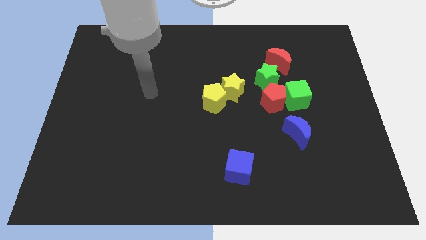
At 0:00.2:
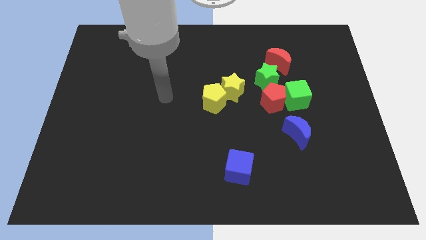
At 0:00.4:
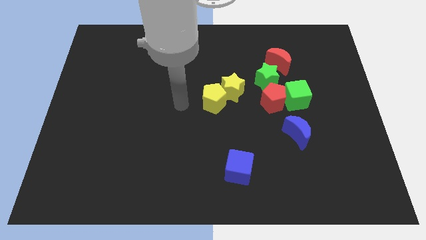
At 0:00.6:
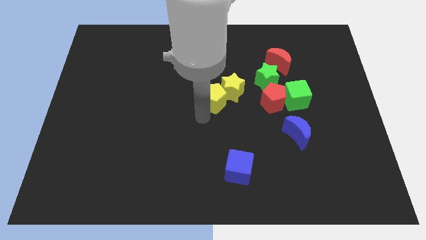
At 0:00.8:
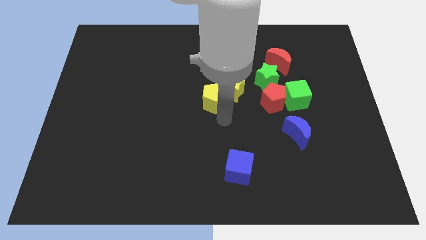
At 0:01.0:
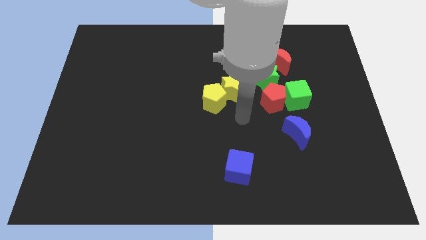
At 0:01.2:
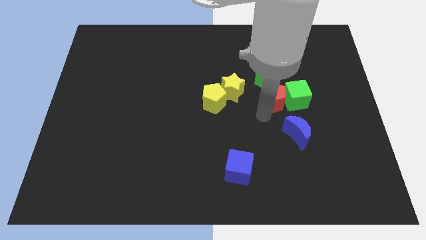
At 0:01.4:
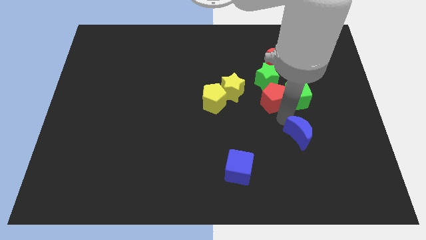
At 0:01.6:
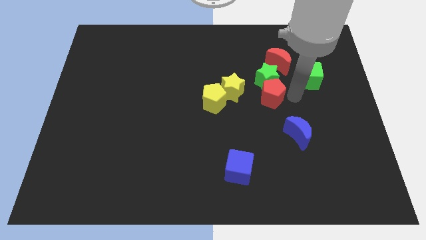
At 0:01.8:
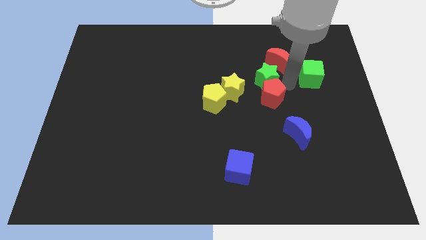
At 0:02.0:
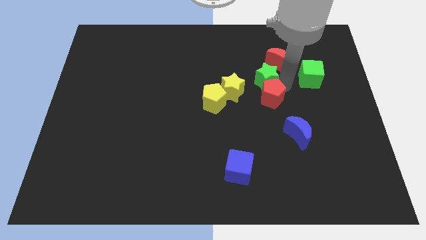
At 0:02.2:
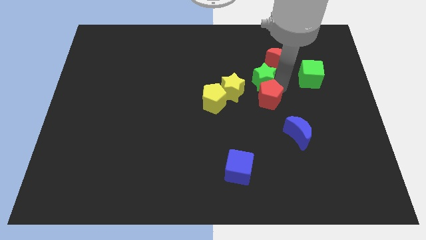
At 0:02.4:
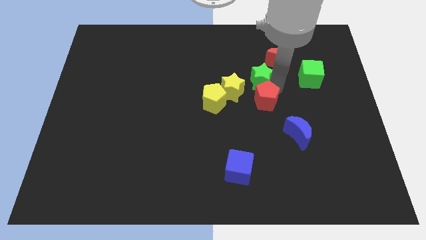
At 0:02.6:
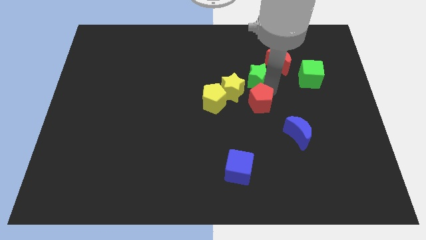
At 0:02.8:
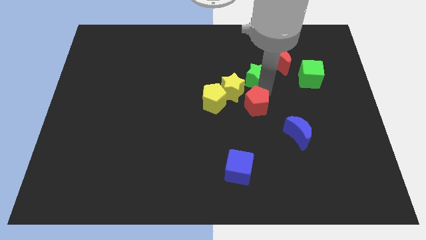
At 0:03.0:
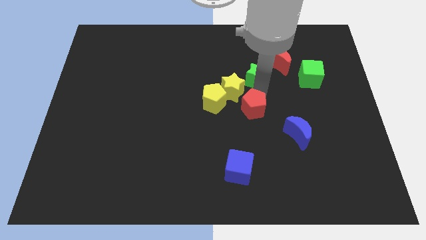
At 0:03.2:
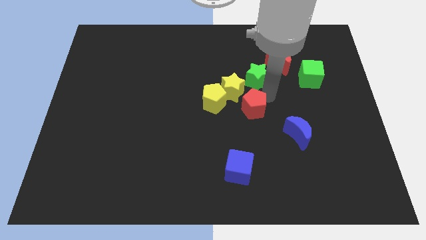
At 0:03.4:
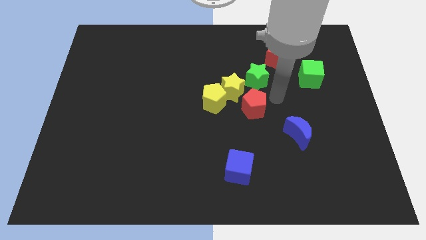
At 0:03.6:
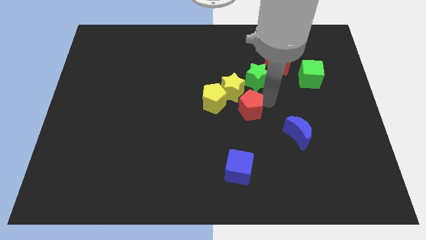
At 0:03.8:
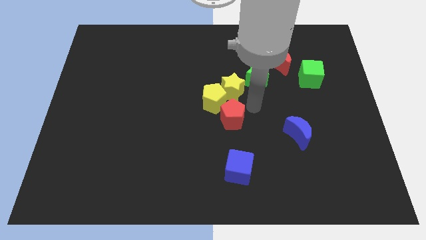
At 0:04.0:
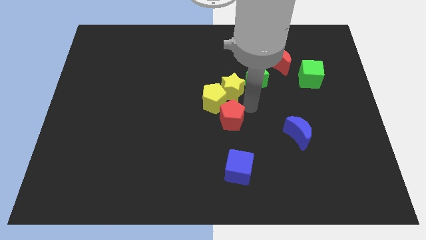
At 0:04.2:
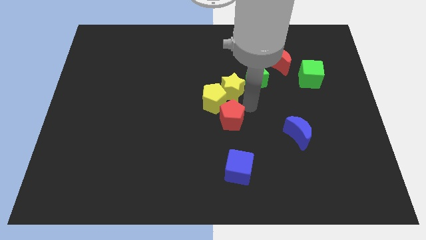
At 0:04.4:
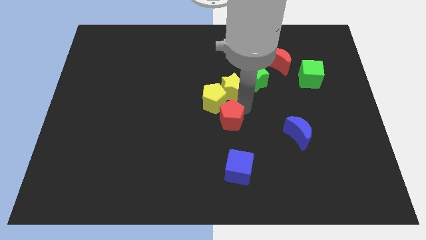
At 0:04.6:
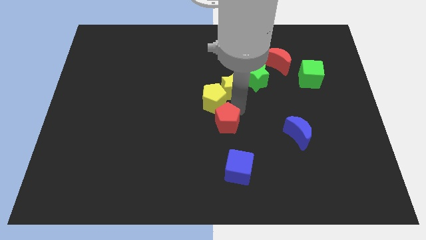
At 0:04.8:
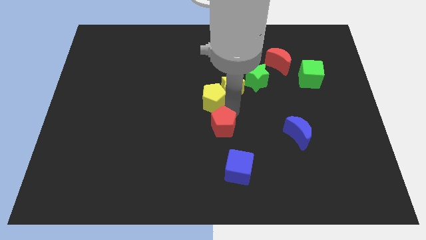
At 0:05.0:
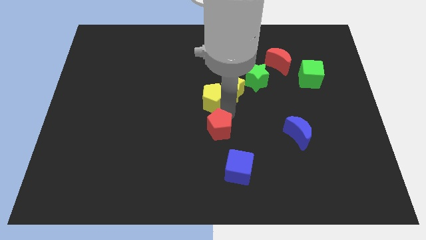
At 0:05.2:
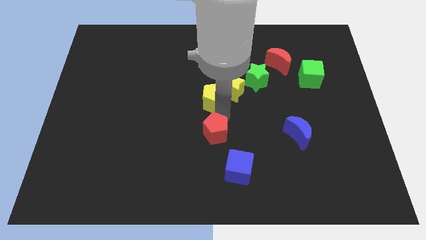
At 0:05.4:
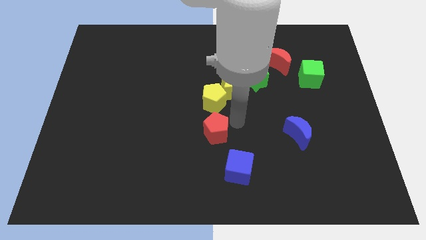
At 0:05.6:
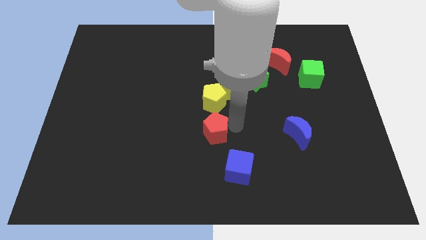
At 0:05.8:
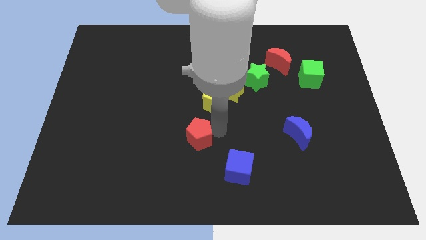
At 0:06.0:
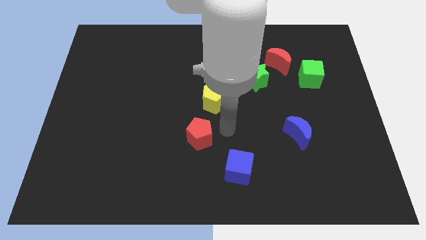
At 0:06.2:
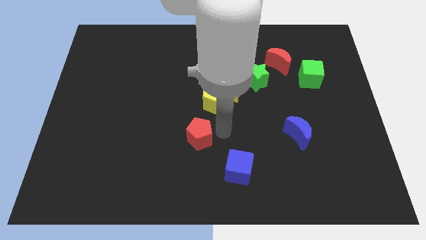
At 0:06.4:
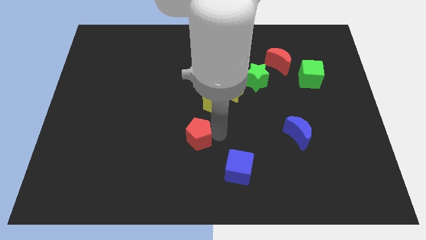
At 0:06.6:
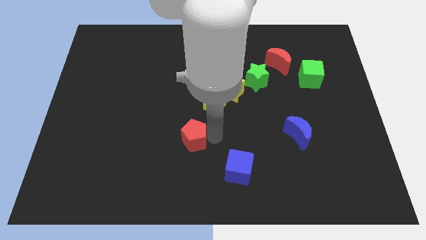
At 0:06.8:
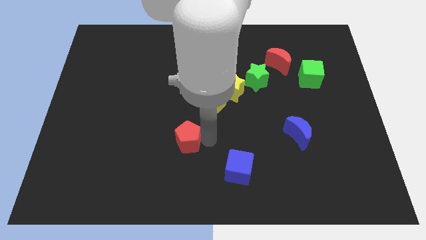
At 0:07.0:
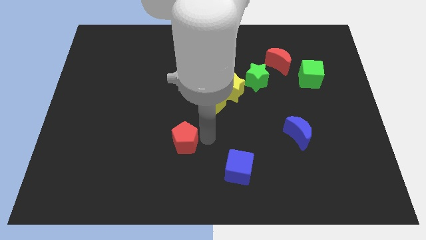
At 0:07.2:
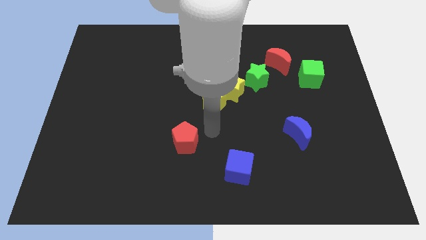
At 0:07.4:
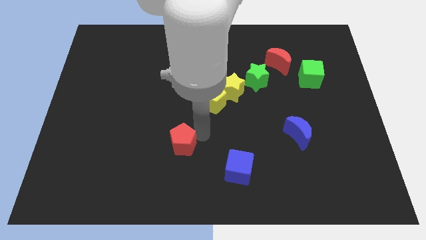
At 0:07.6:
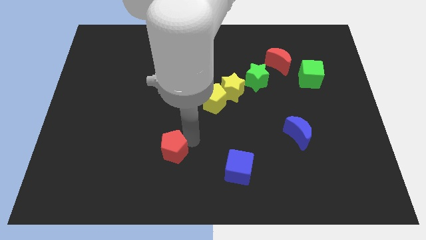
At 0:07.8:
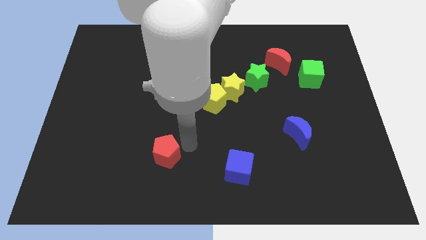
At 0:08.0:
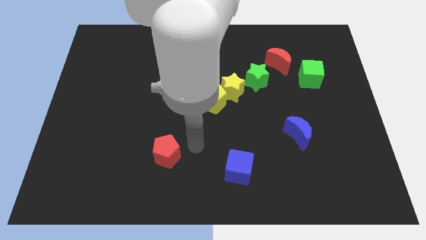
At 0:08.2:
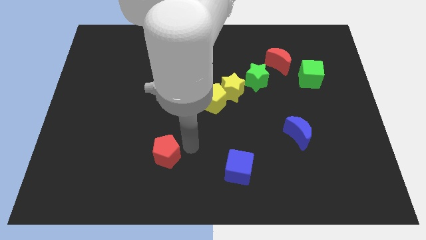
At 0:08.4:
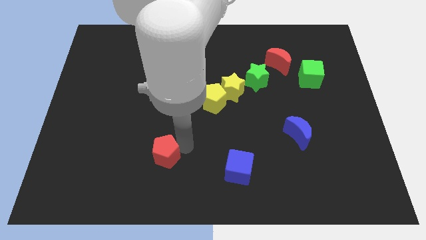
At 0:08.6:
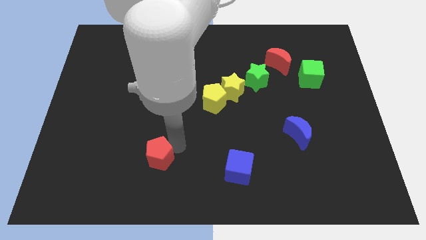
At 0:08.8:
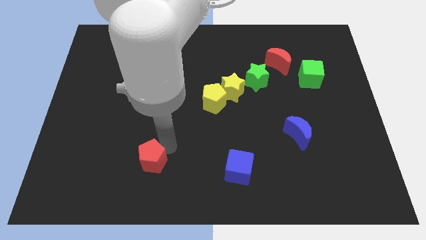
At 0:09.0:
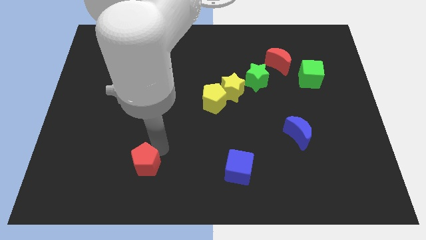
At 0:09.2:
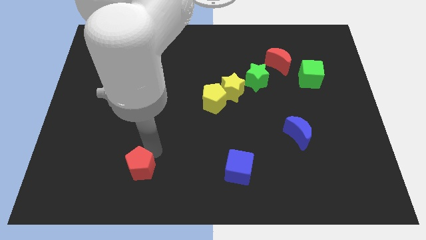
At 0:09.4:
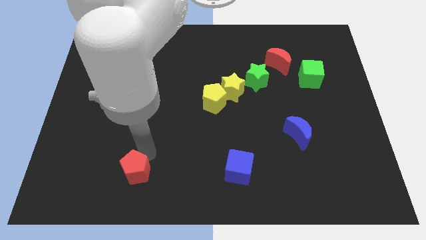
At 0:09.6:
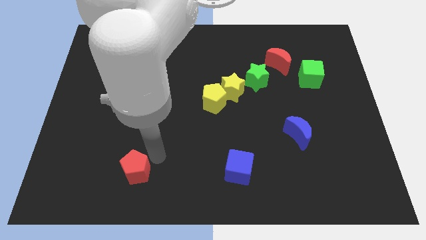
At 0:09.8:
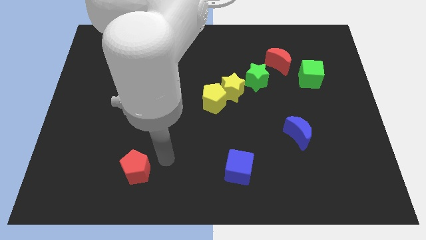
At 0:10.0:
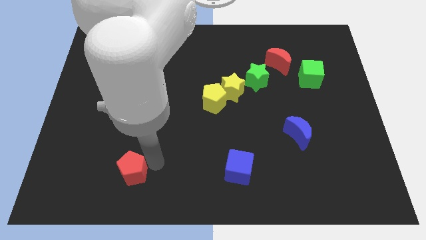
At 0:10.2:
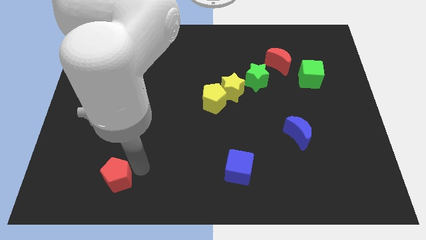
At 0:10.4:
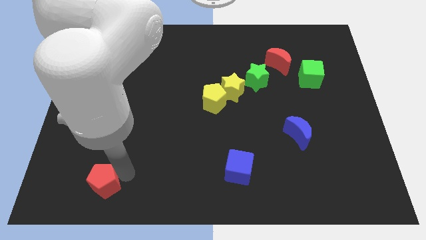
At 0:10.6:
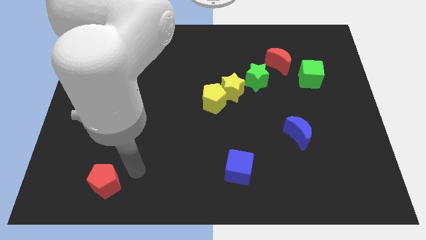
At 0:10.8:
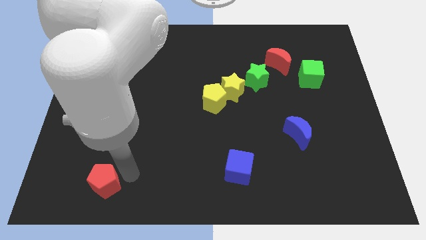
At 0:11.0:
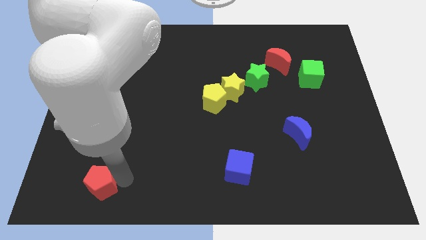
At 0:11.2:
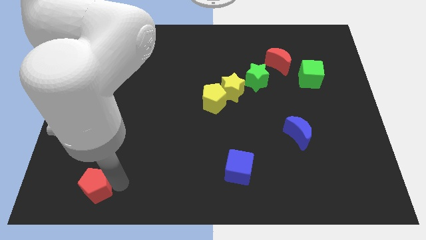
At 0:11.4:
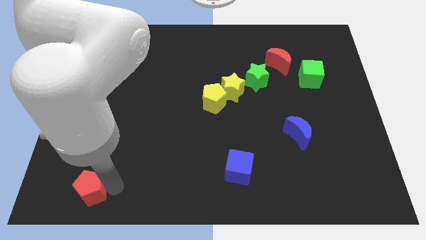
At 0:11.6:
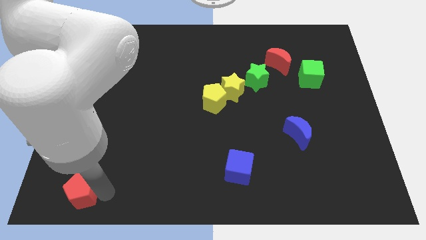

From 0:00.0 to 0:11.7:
slide the red pentagon to the bottom left corner

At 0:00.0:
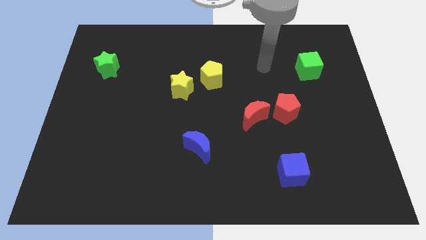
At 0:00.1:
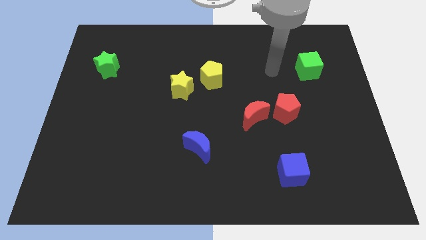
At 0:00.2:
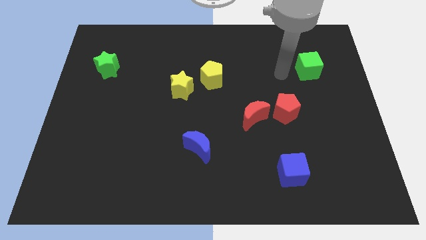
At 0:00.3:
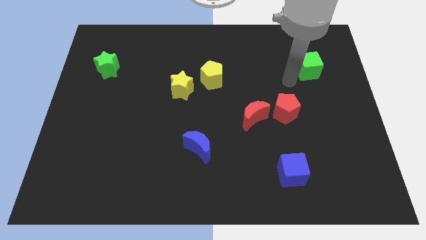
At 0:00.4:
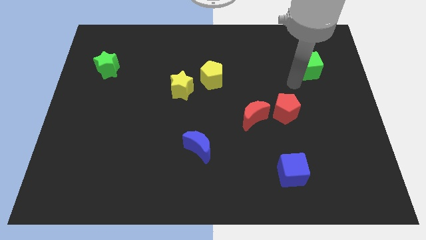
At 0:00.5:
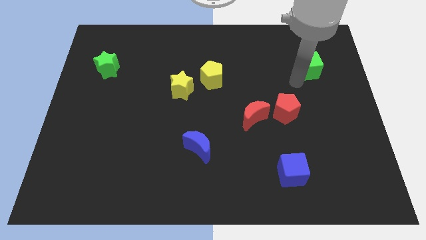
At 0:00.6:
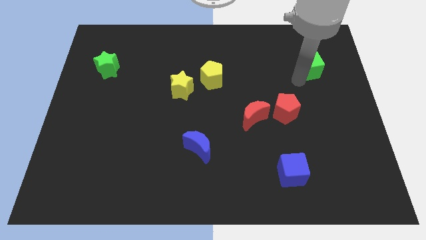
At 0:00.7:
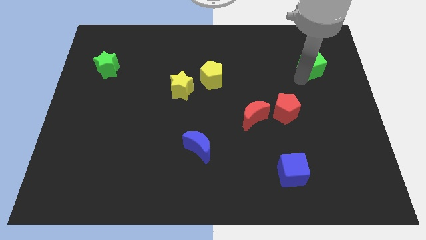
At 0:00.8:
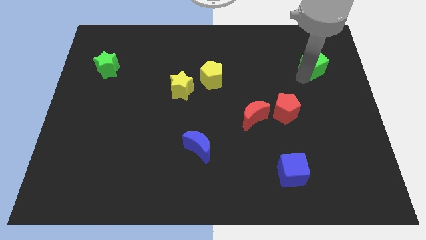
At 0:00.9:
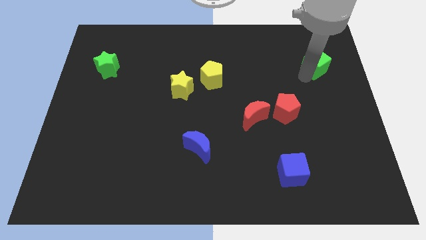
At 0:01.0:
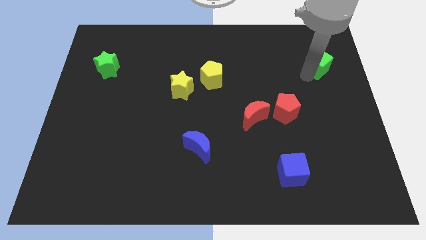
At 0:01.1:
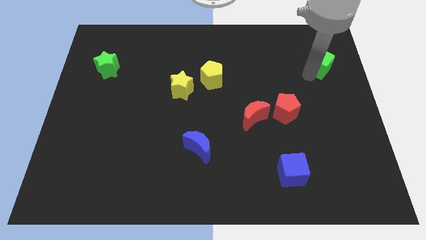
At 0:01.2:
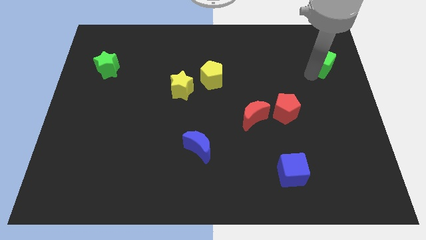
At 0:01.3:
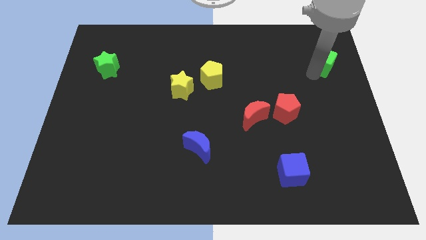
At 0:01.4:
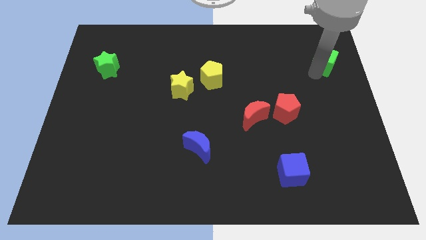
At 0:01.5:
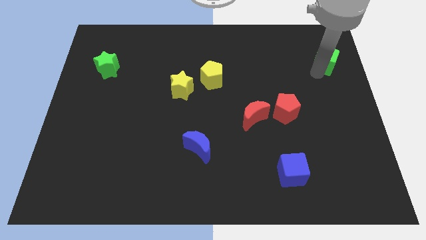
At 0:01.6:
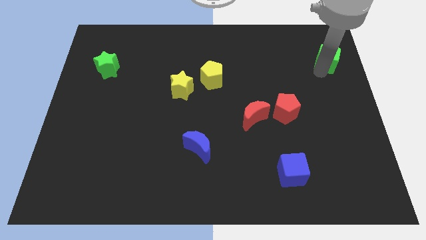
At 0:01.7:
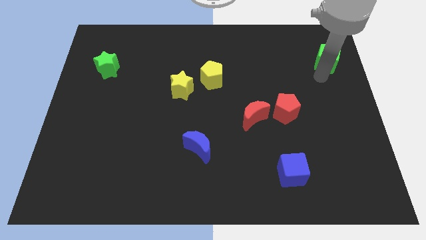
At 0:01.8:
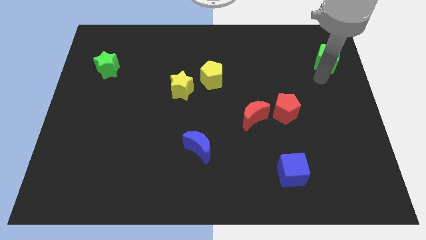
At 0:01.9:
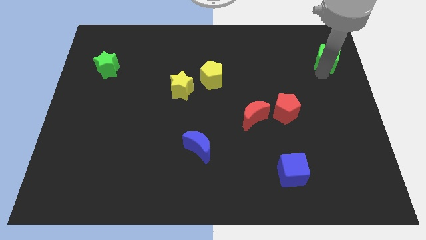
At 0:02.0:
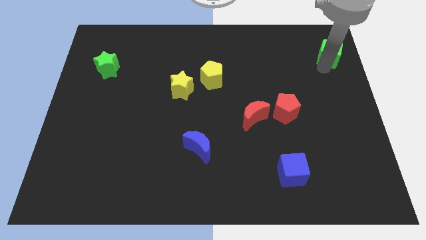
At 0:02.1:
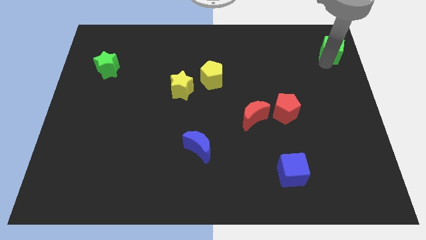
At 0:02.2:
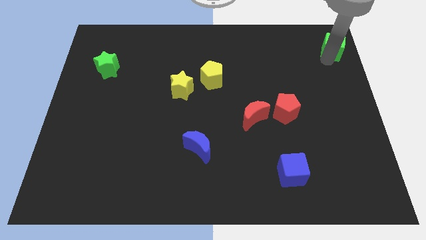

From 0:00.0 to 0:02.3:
move the green cube to the top right of the board
